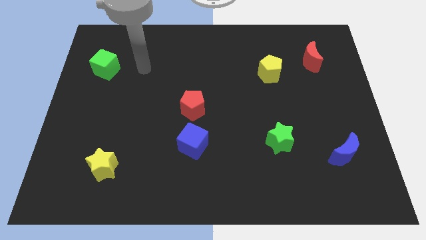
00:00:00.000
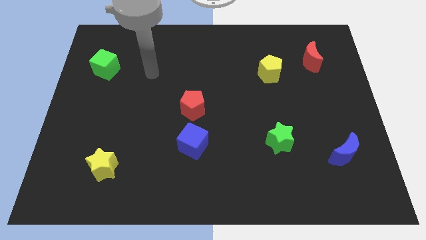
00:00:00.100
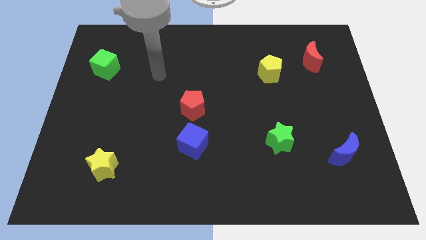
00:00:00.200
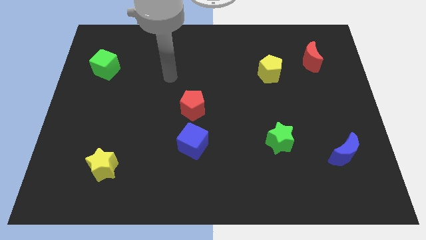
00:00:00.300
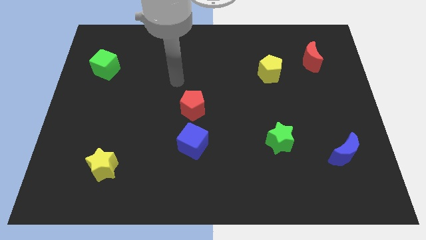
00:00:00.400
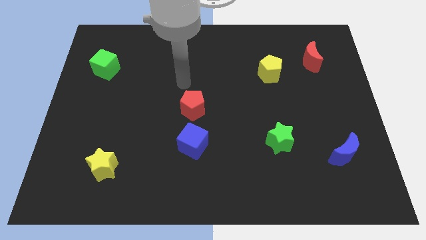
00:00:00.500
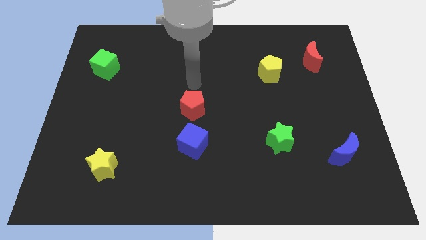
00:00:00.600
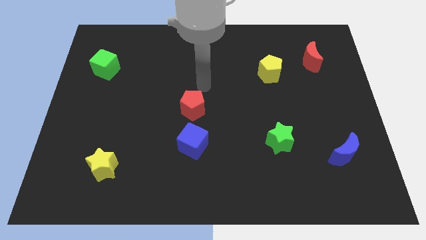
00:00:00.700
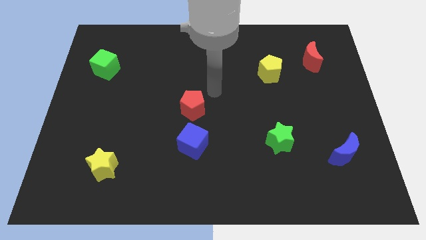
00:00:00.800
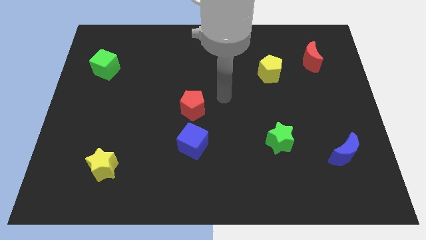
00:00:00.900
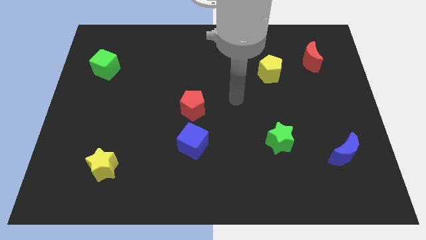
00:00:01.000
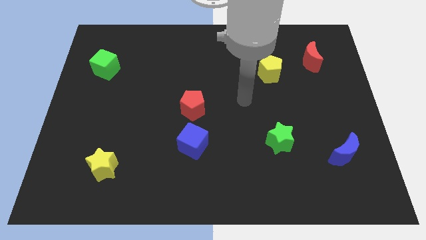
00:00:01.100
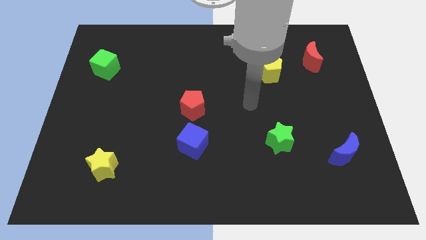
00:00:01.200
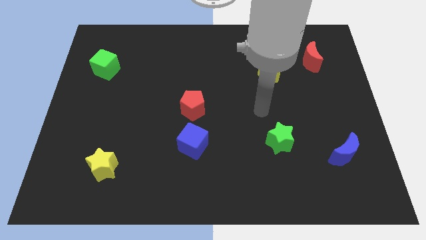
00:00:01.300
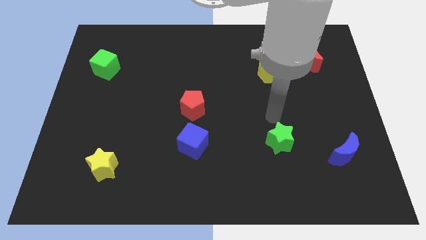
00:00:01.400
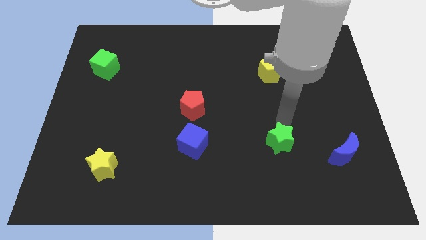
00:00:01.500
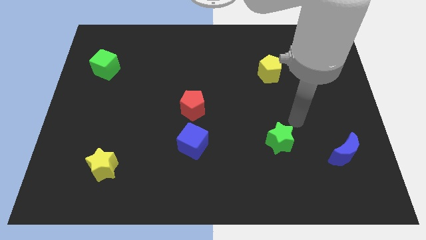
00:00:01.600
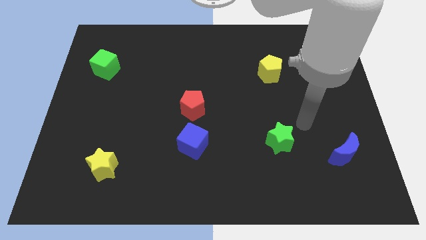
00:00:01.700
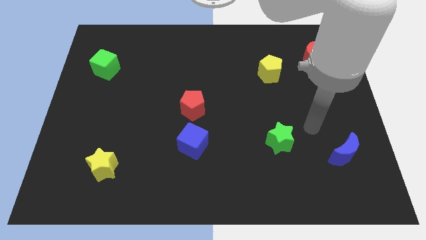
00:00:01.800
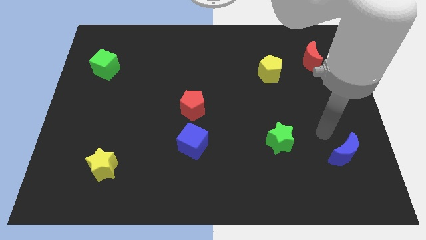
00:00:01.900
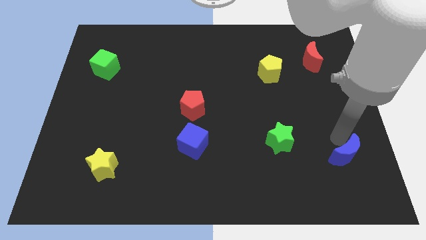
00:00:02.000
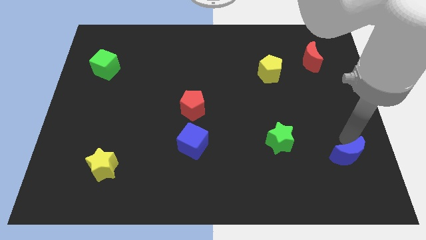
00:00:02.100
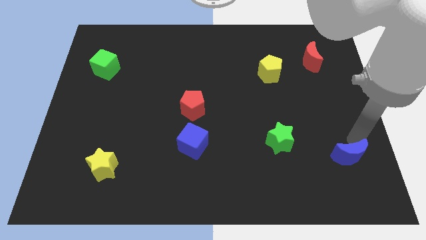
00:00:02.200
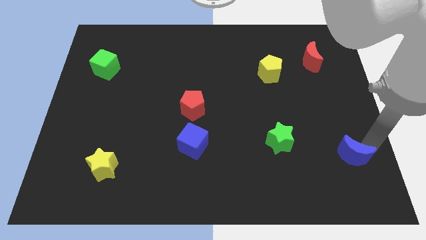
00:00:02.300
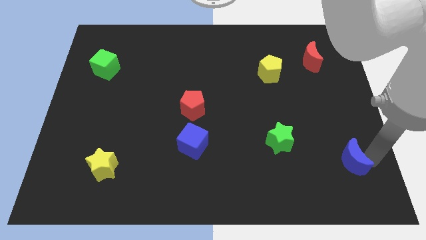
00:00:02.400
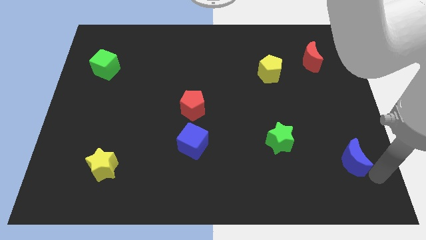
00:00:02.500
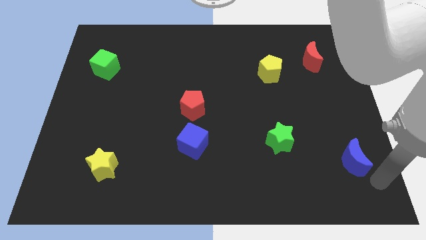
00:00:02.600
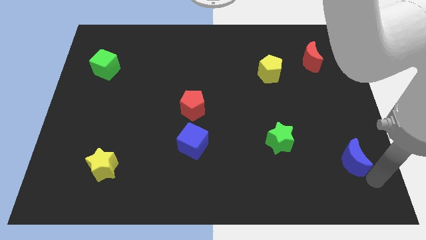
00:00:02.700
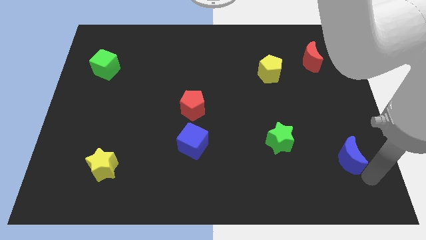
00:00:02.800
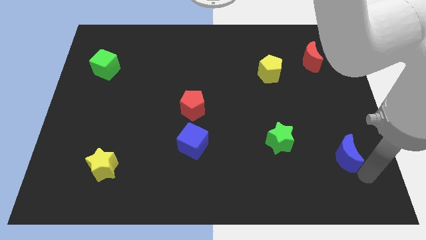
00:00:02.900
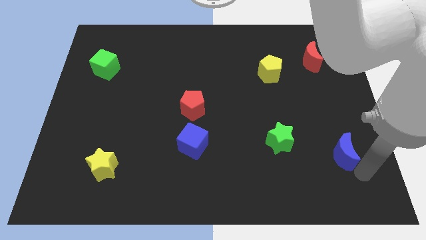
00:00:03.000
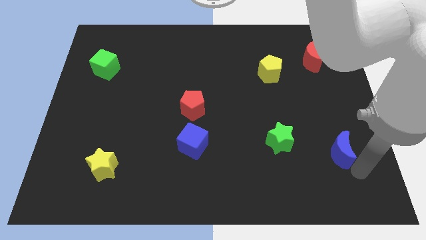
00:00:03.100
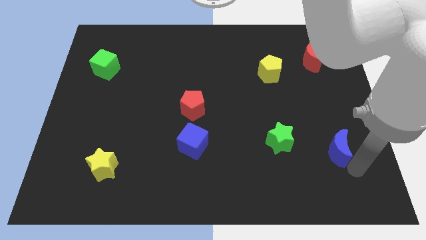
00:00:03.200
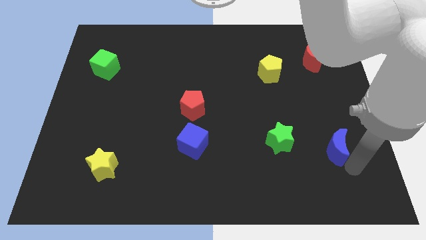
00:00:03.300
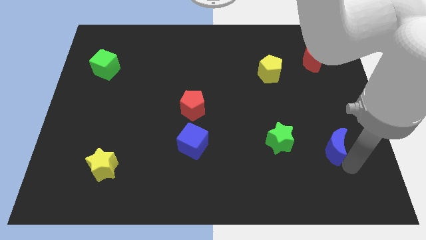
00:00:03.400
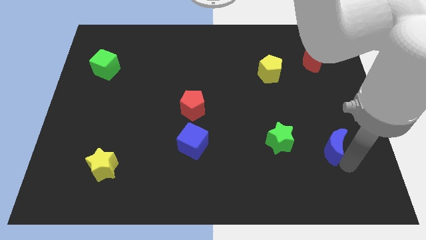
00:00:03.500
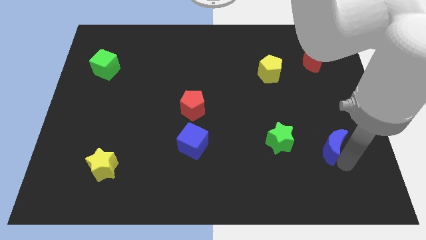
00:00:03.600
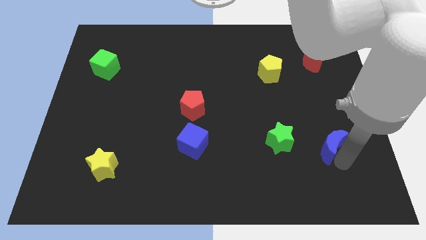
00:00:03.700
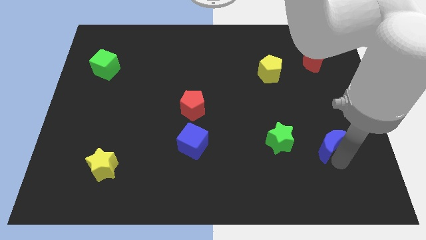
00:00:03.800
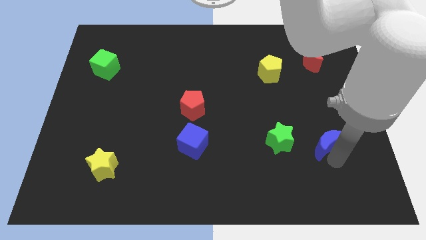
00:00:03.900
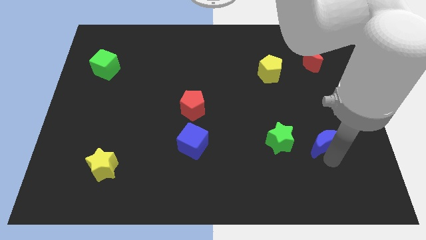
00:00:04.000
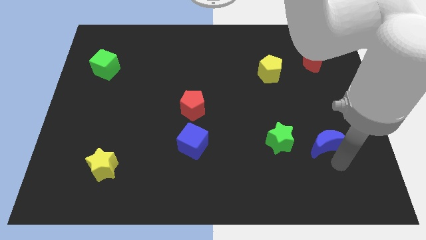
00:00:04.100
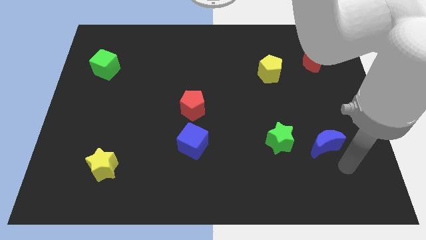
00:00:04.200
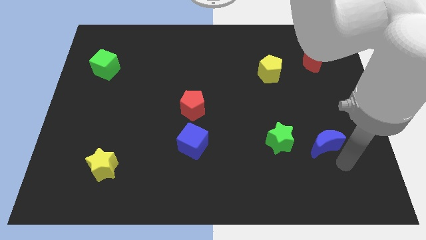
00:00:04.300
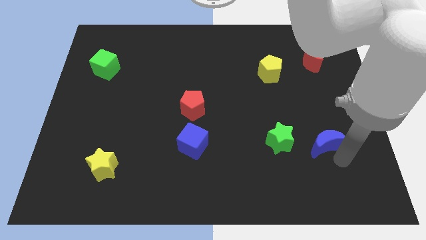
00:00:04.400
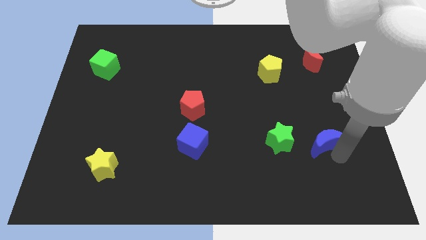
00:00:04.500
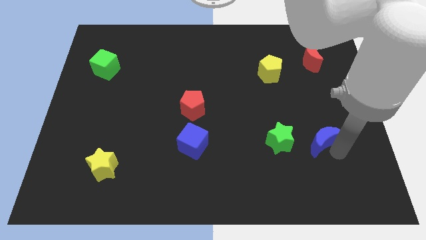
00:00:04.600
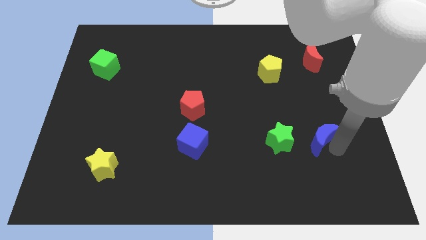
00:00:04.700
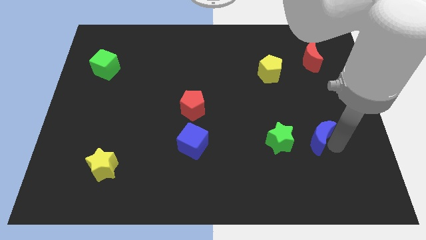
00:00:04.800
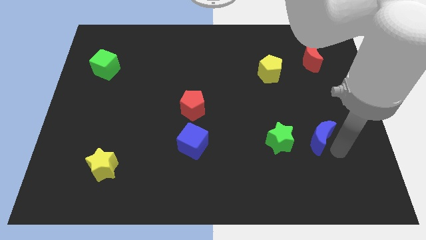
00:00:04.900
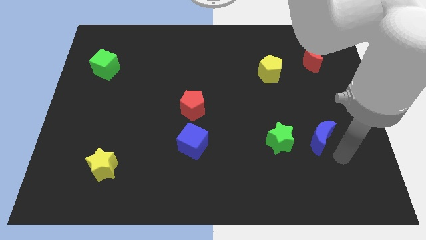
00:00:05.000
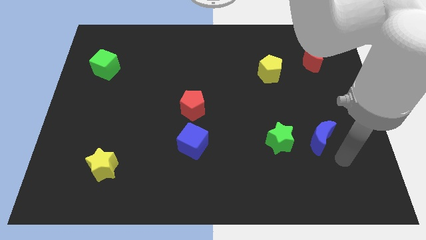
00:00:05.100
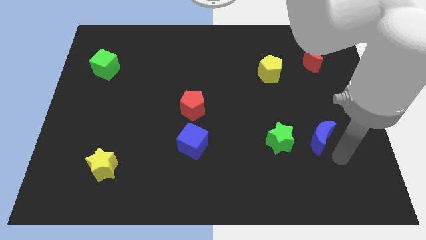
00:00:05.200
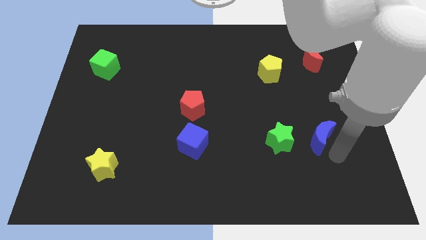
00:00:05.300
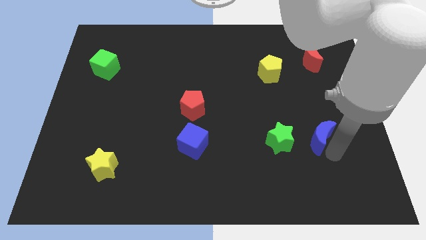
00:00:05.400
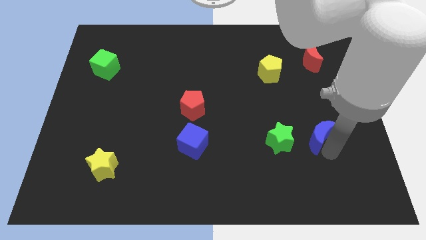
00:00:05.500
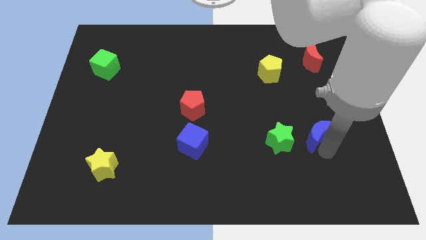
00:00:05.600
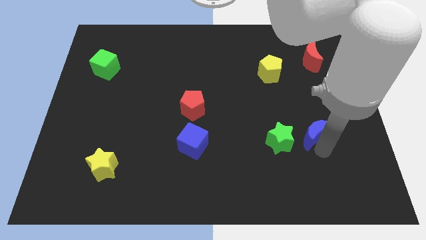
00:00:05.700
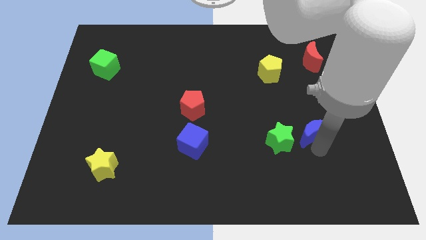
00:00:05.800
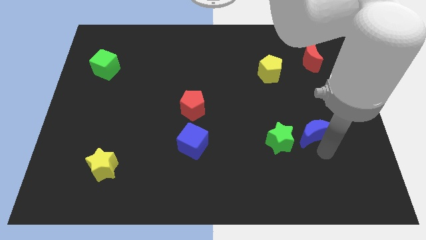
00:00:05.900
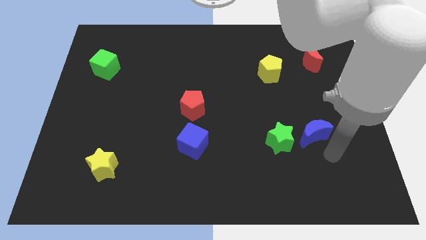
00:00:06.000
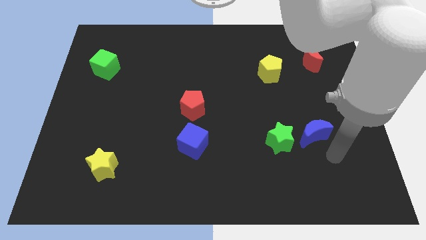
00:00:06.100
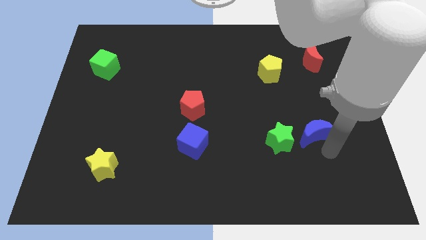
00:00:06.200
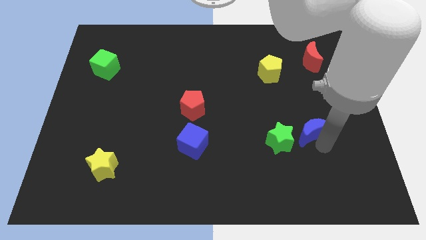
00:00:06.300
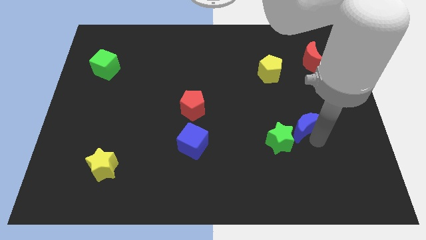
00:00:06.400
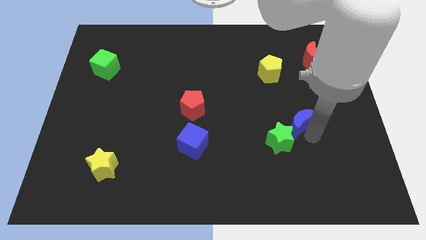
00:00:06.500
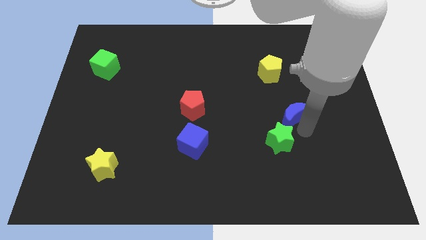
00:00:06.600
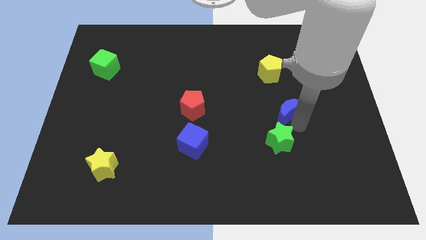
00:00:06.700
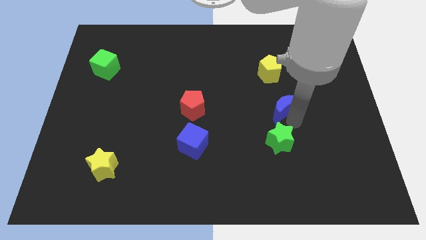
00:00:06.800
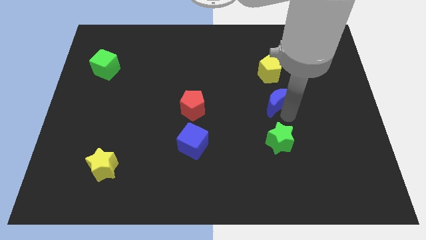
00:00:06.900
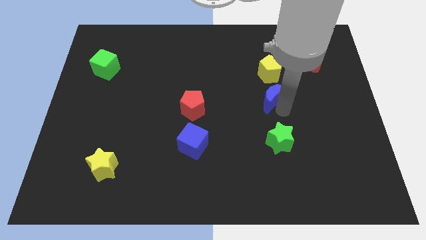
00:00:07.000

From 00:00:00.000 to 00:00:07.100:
push the blue moon upwards and left

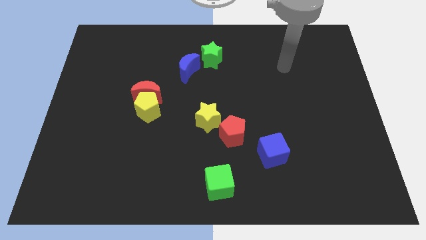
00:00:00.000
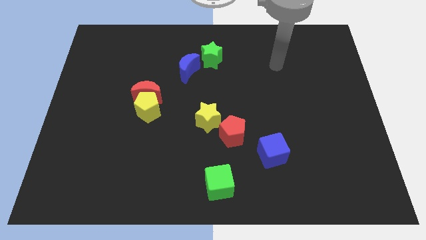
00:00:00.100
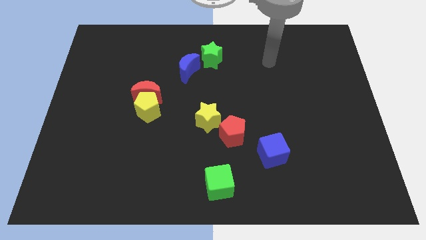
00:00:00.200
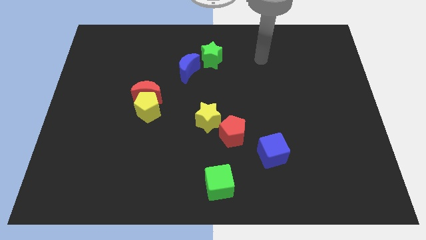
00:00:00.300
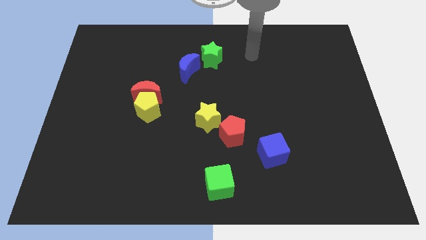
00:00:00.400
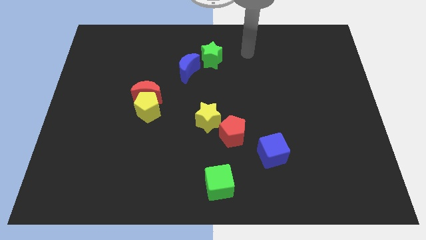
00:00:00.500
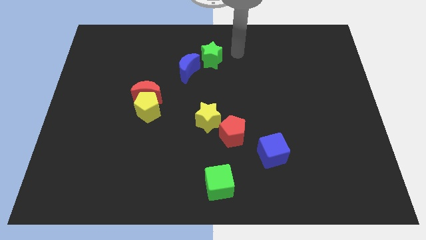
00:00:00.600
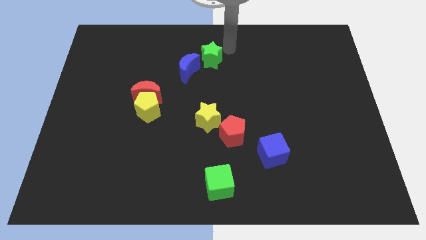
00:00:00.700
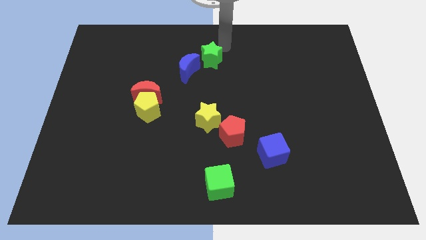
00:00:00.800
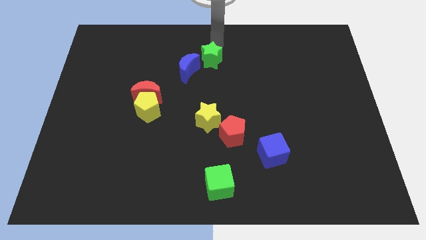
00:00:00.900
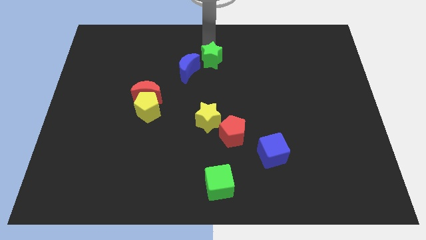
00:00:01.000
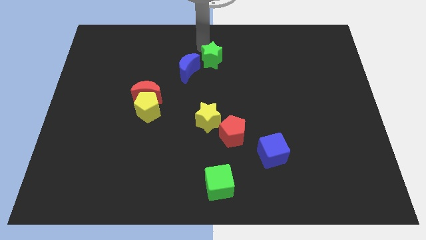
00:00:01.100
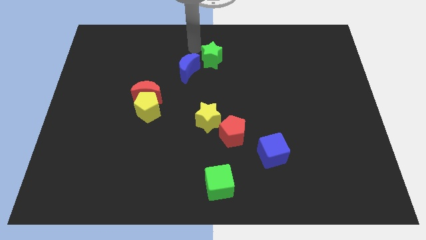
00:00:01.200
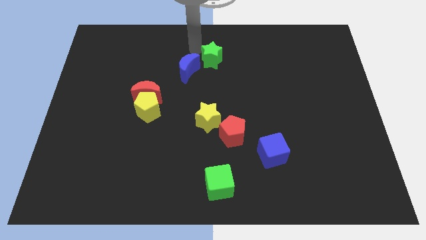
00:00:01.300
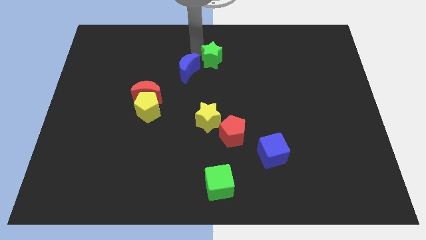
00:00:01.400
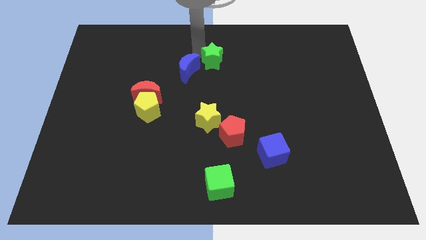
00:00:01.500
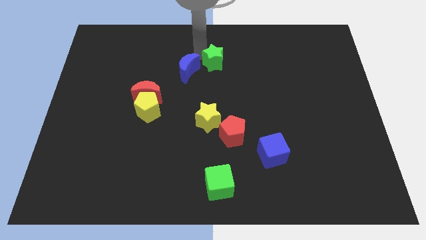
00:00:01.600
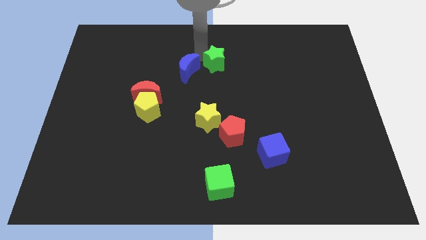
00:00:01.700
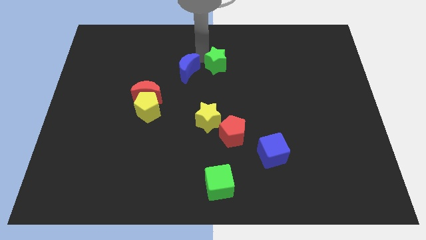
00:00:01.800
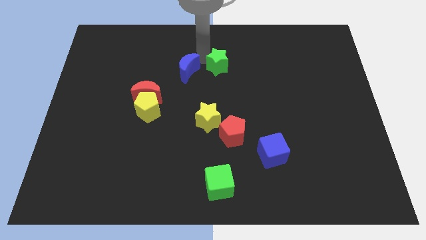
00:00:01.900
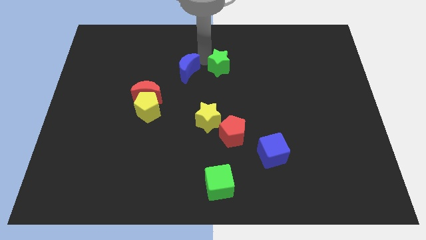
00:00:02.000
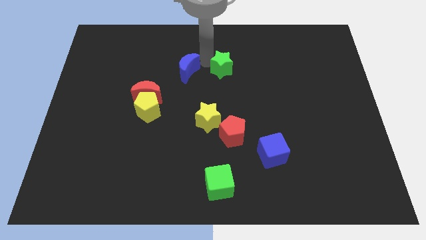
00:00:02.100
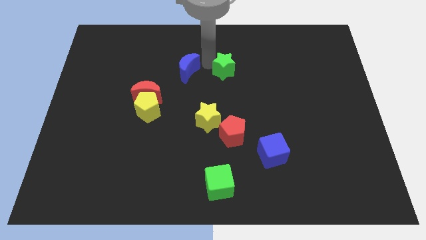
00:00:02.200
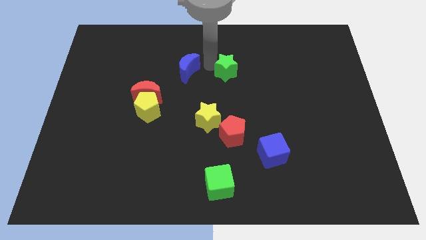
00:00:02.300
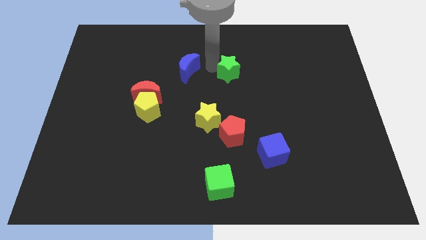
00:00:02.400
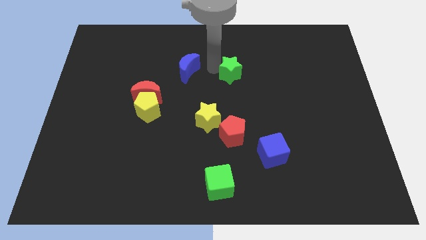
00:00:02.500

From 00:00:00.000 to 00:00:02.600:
slide the green star diagonally downwards and to the right a little
